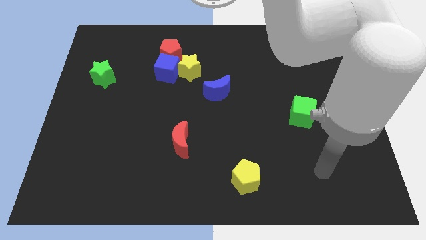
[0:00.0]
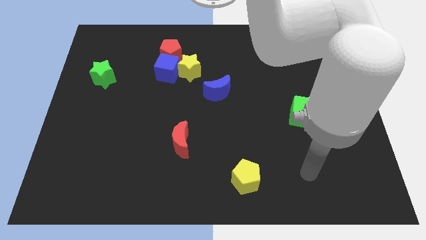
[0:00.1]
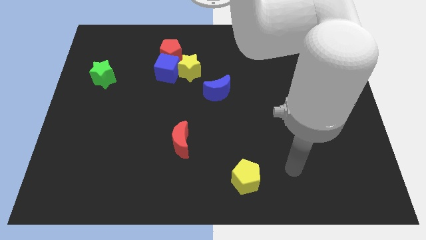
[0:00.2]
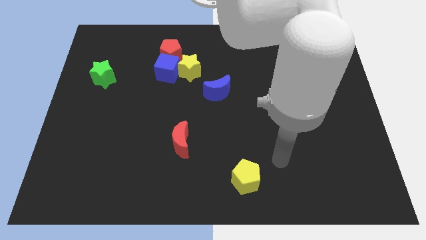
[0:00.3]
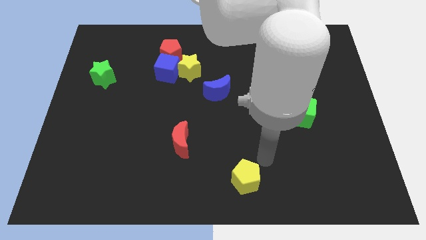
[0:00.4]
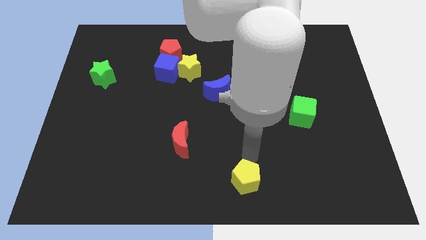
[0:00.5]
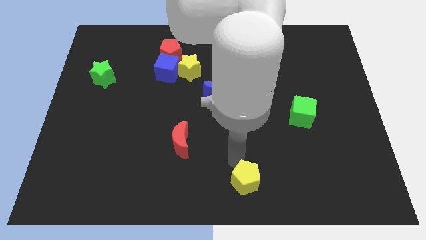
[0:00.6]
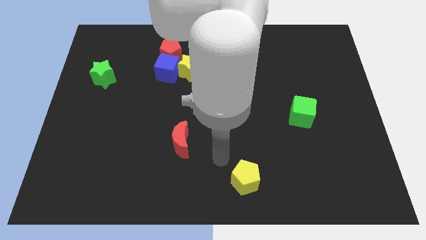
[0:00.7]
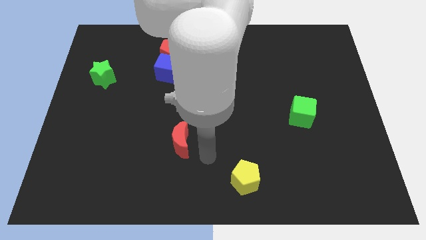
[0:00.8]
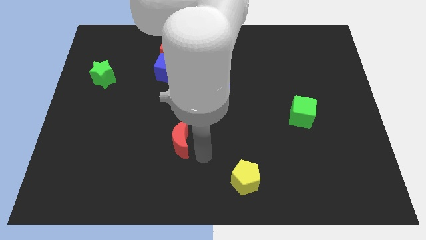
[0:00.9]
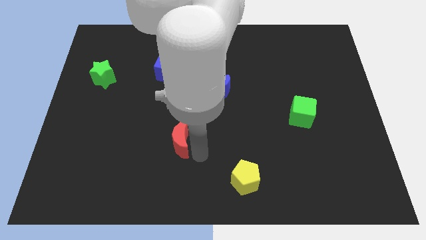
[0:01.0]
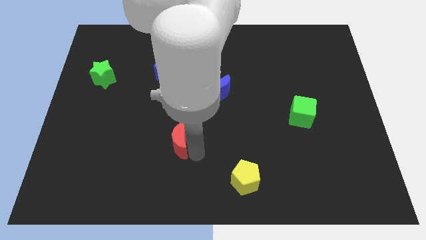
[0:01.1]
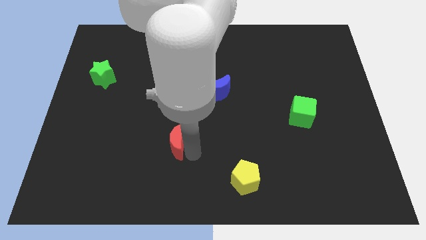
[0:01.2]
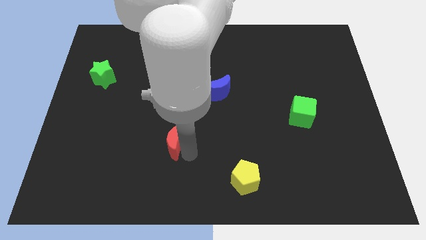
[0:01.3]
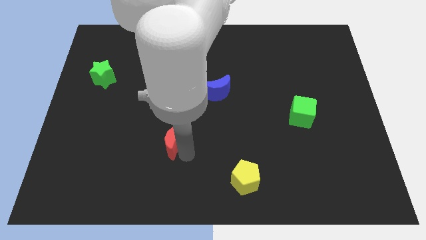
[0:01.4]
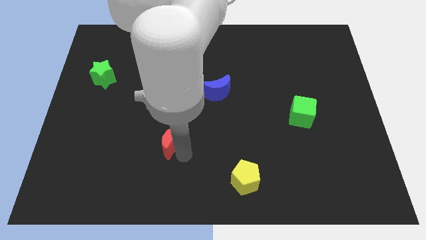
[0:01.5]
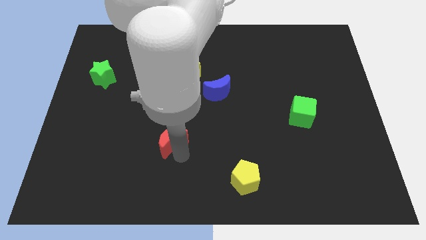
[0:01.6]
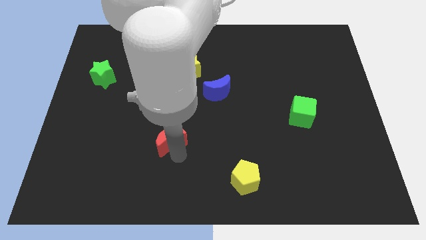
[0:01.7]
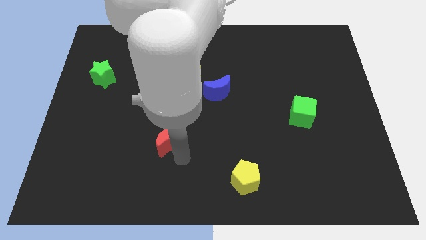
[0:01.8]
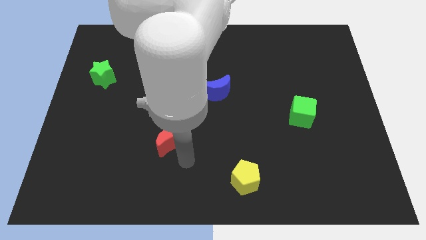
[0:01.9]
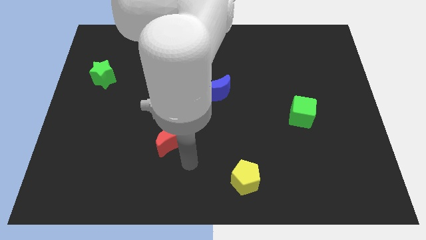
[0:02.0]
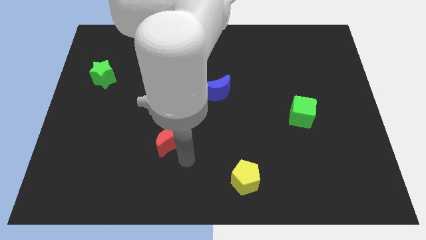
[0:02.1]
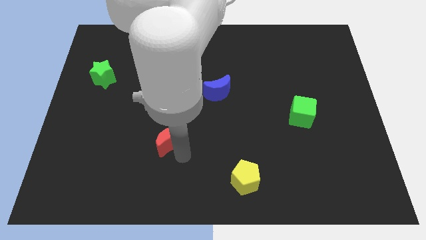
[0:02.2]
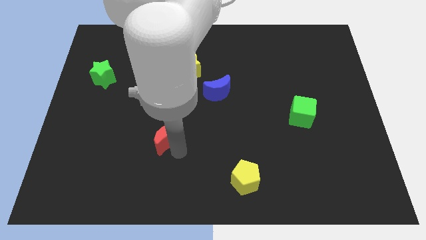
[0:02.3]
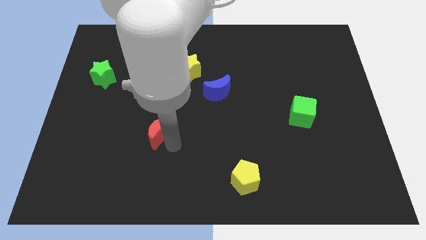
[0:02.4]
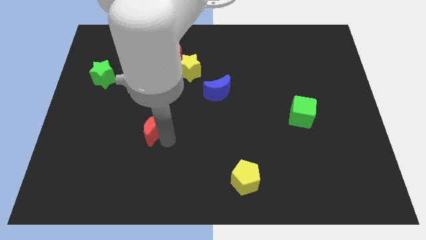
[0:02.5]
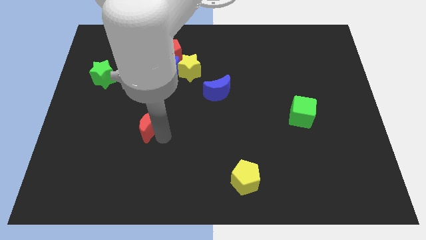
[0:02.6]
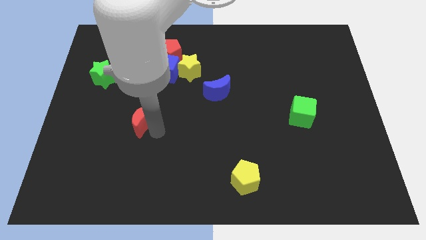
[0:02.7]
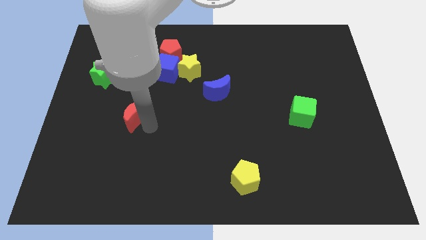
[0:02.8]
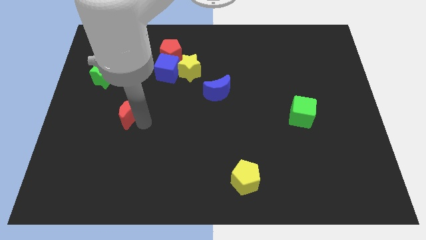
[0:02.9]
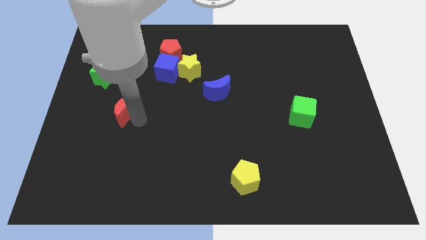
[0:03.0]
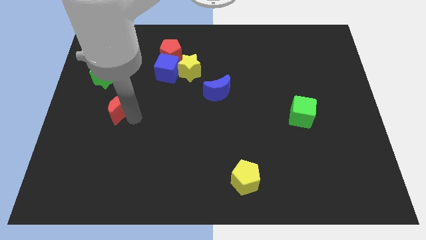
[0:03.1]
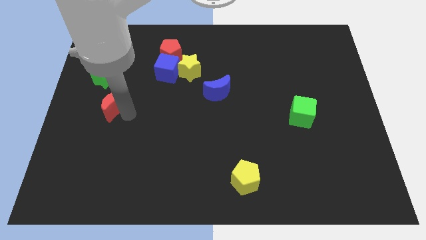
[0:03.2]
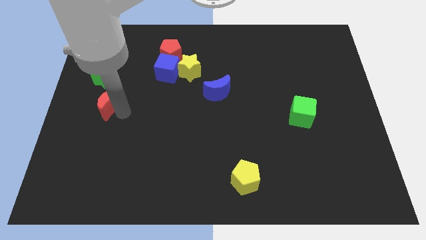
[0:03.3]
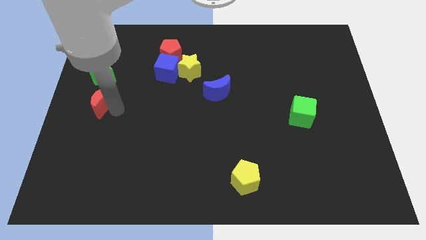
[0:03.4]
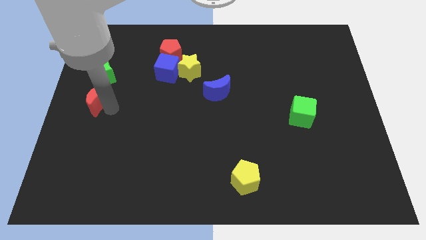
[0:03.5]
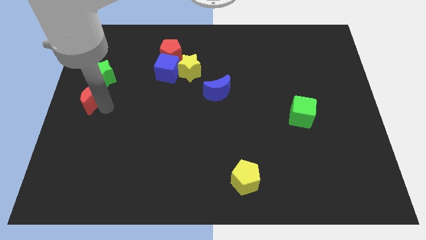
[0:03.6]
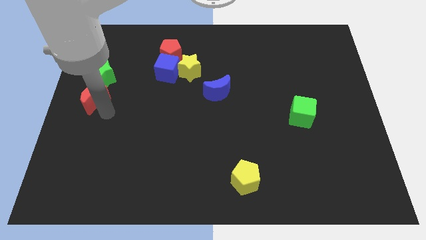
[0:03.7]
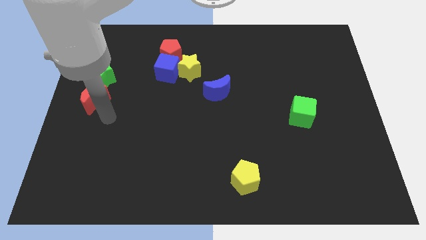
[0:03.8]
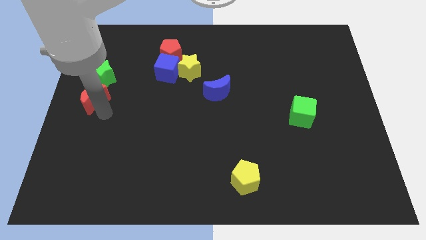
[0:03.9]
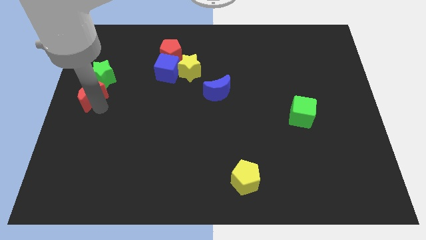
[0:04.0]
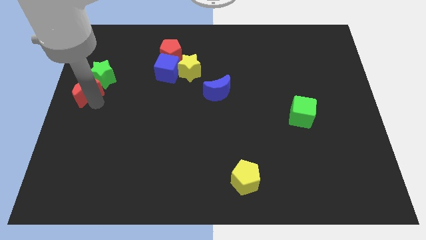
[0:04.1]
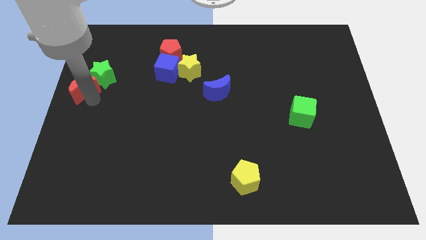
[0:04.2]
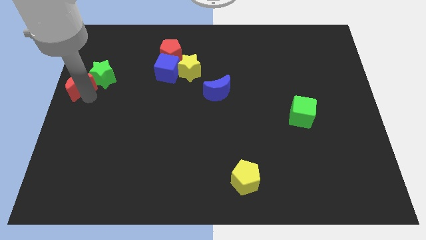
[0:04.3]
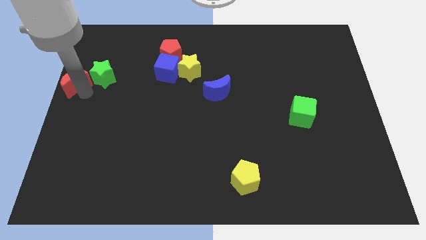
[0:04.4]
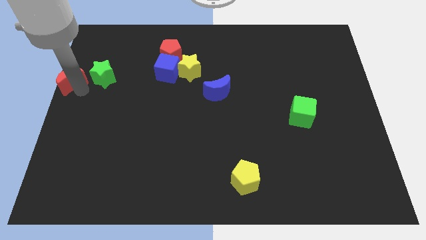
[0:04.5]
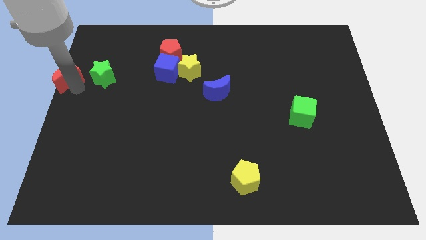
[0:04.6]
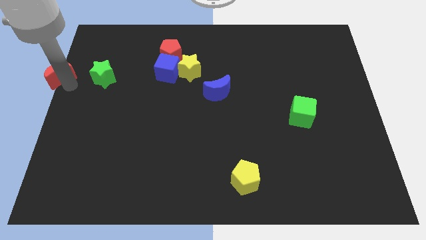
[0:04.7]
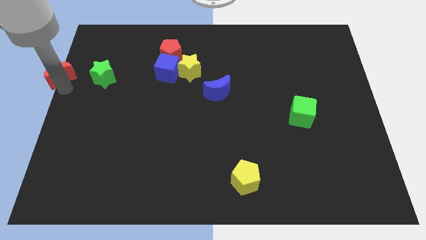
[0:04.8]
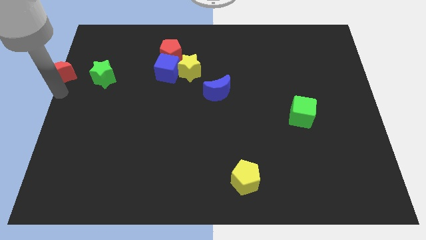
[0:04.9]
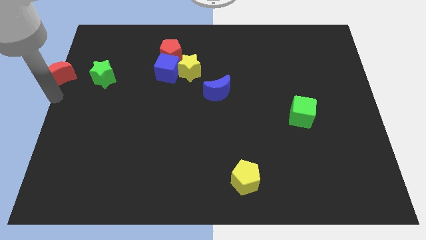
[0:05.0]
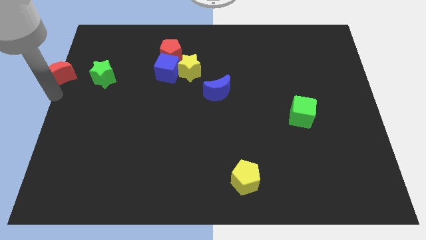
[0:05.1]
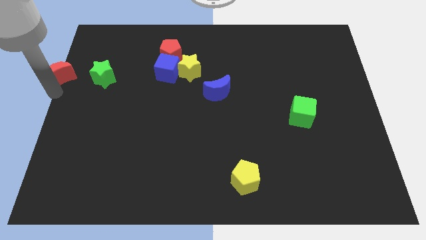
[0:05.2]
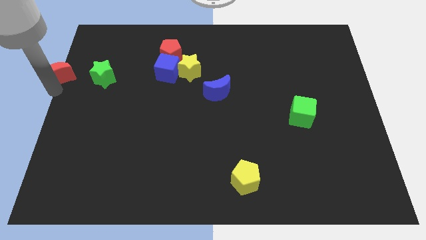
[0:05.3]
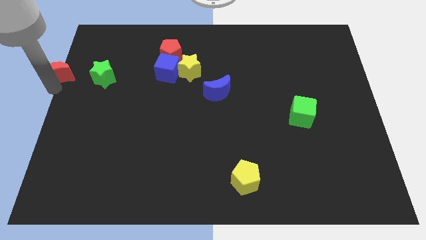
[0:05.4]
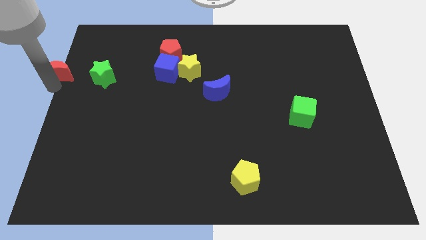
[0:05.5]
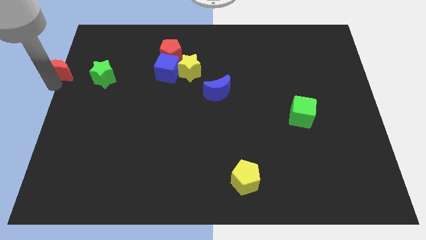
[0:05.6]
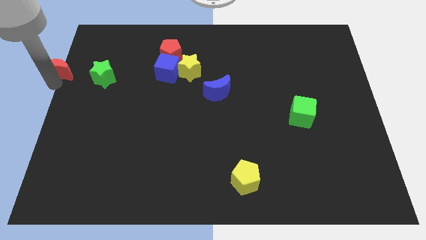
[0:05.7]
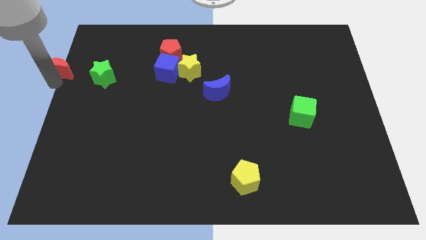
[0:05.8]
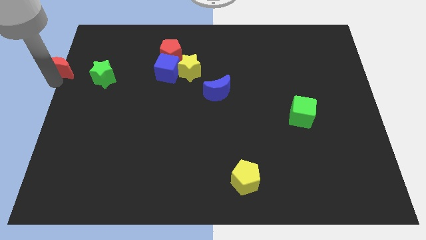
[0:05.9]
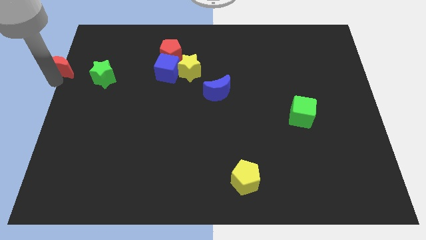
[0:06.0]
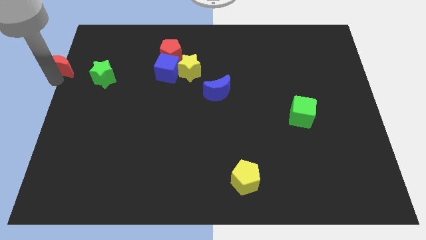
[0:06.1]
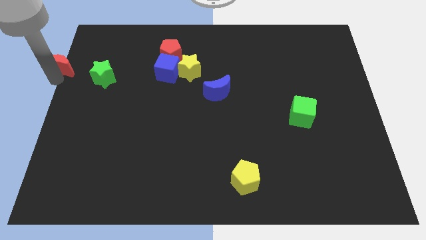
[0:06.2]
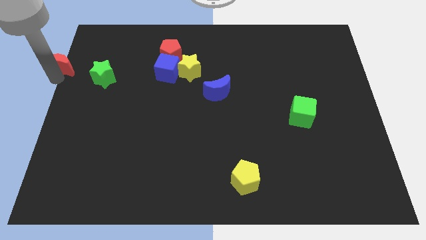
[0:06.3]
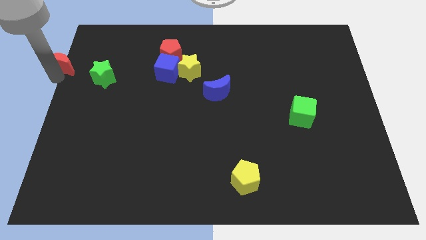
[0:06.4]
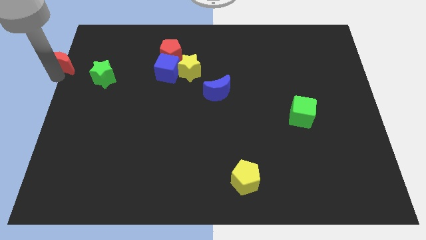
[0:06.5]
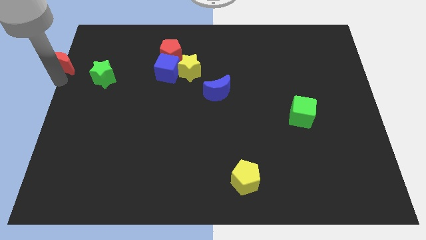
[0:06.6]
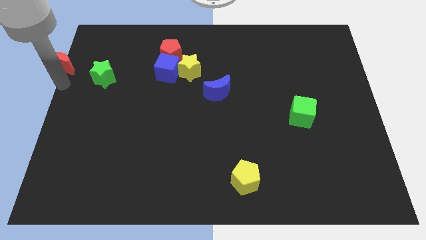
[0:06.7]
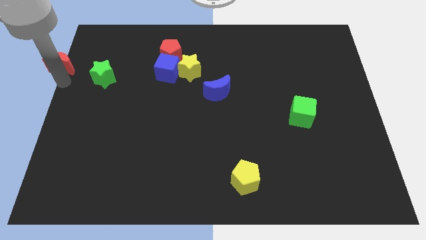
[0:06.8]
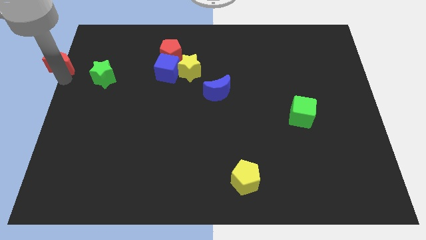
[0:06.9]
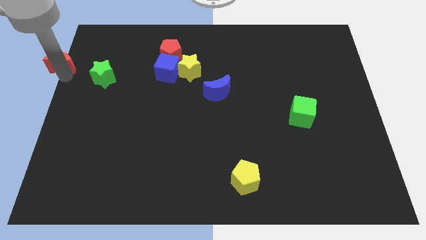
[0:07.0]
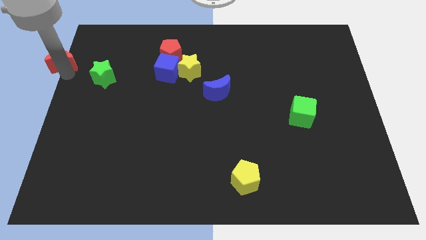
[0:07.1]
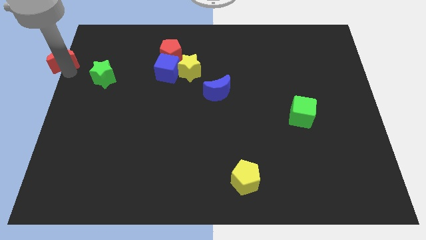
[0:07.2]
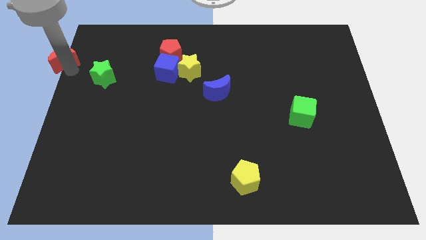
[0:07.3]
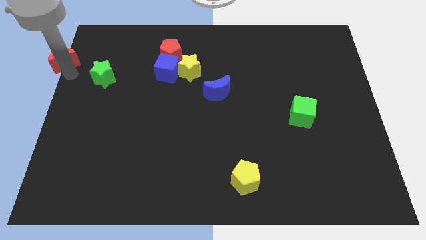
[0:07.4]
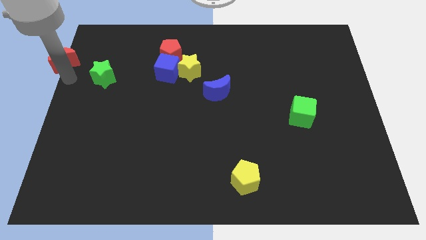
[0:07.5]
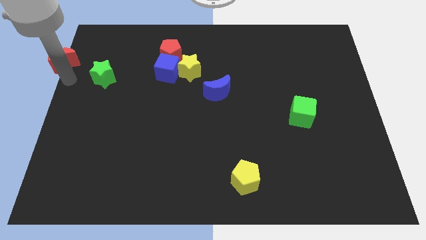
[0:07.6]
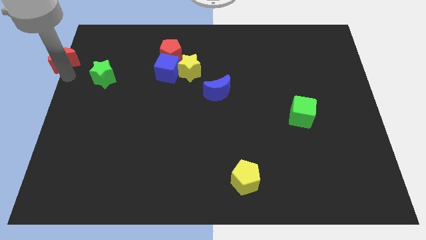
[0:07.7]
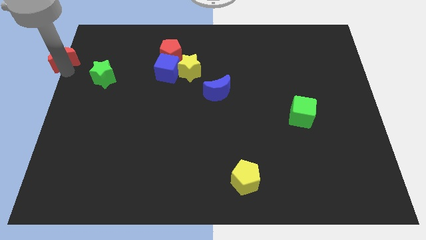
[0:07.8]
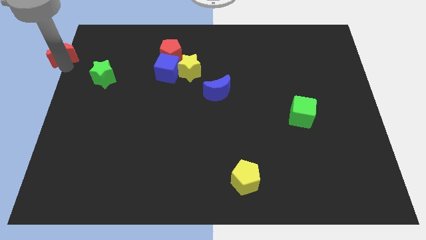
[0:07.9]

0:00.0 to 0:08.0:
put the red moon to the top left of the board
